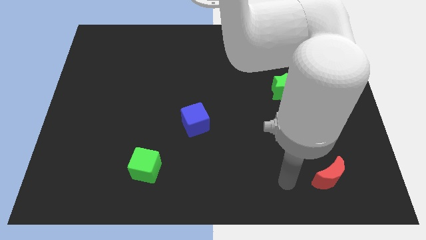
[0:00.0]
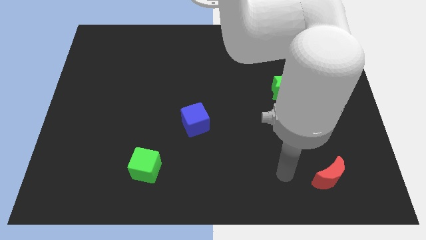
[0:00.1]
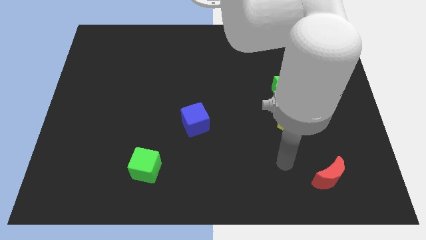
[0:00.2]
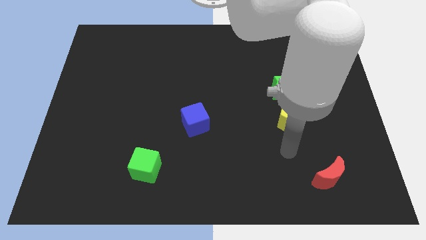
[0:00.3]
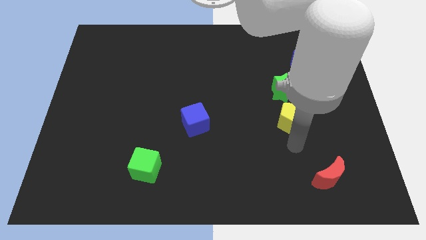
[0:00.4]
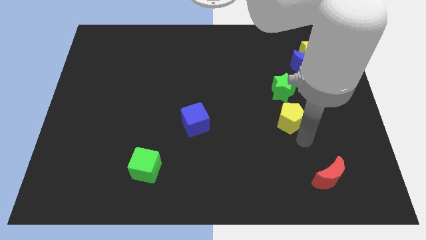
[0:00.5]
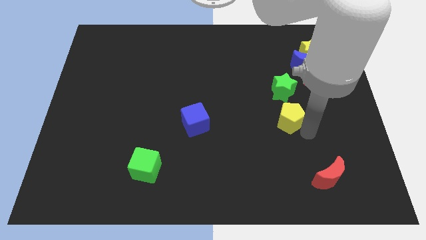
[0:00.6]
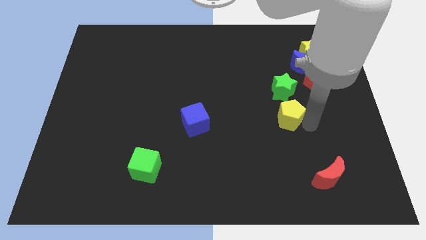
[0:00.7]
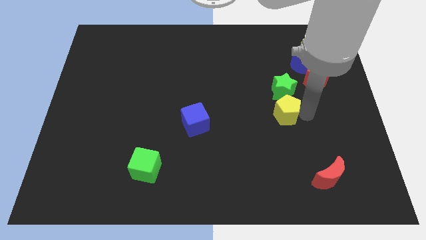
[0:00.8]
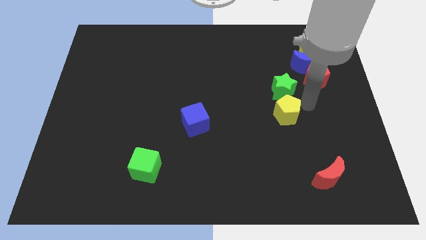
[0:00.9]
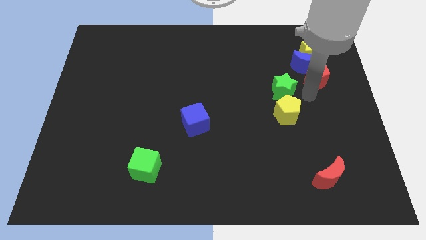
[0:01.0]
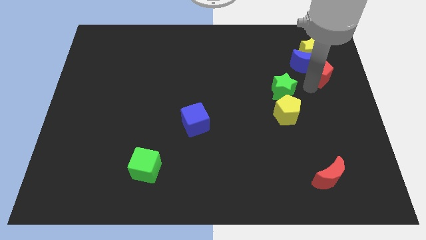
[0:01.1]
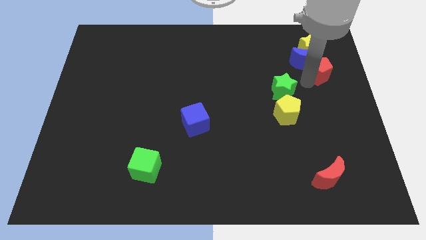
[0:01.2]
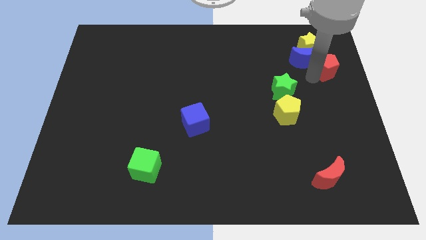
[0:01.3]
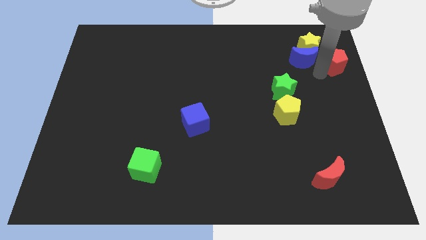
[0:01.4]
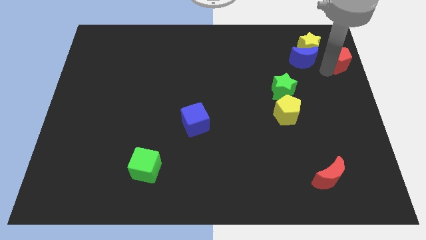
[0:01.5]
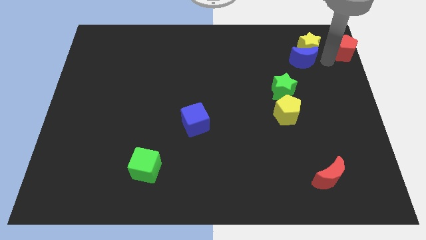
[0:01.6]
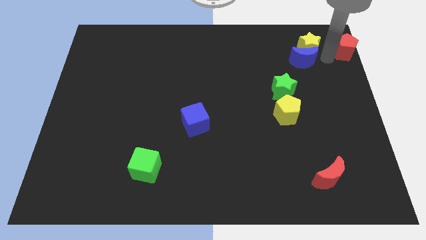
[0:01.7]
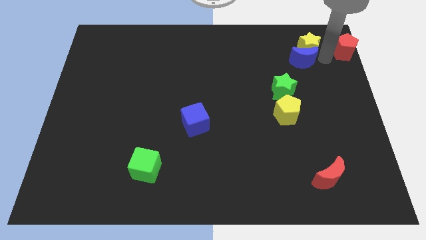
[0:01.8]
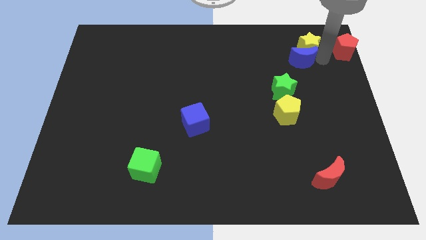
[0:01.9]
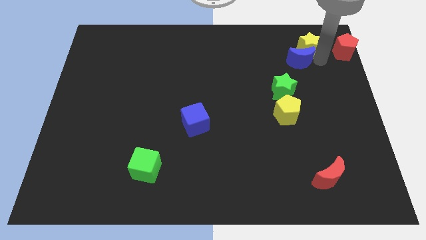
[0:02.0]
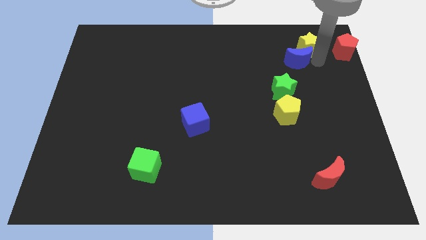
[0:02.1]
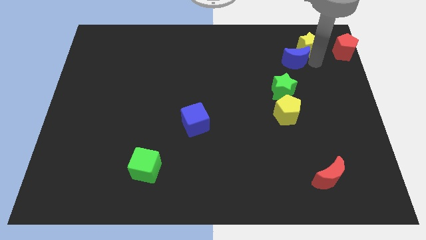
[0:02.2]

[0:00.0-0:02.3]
pull the blue moon apart from the yellow star and red pentagon

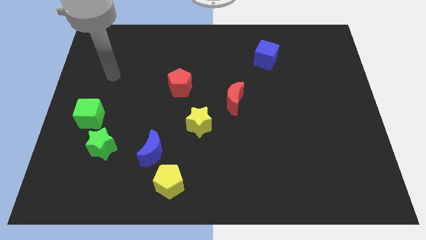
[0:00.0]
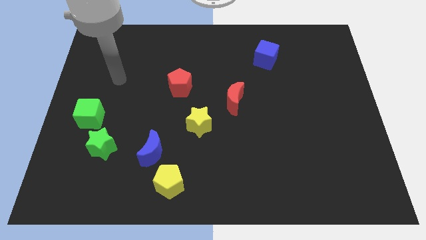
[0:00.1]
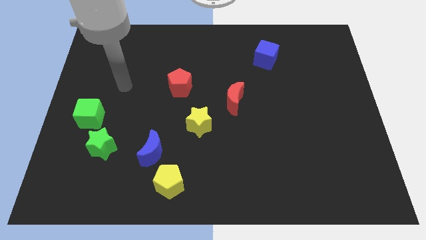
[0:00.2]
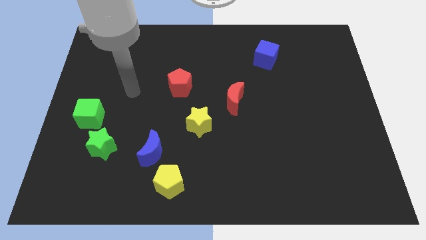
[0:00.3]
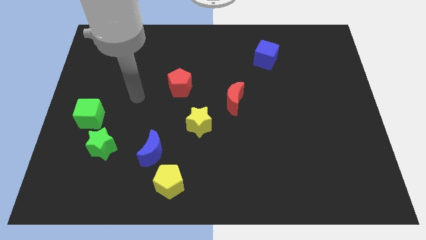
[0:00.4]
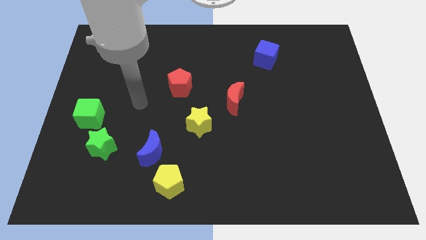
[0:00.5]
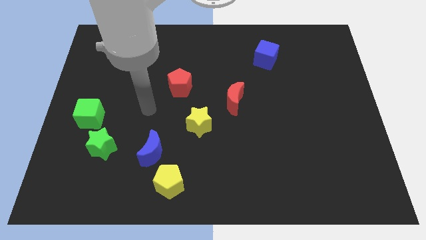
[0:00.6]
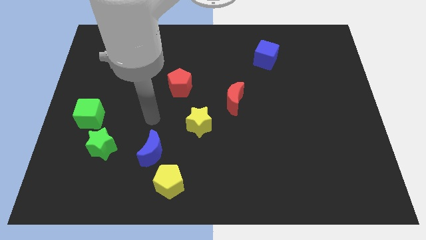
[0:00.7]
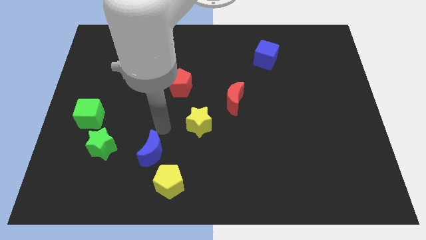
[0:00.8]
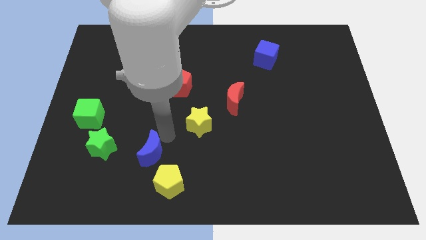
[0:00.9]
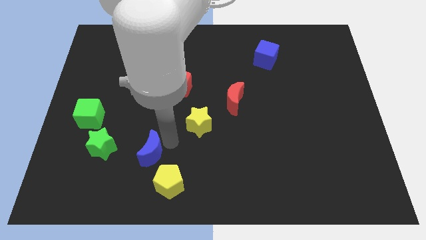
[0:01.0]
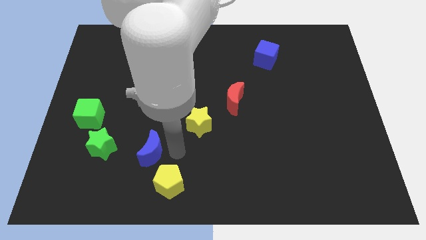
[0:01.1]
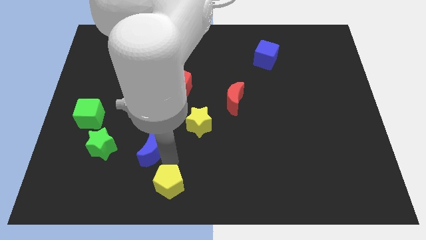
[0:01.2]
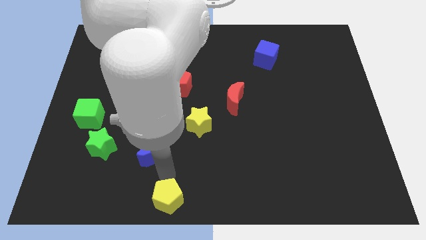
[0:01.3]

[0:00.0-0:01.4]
separate the blue moon from the yellow pentagon

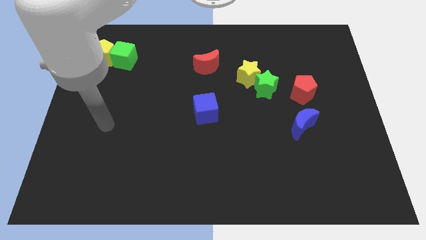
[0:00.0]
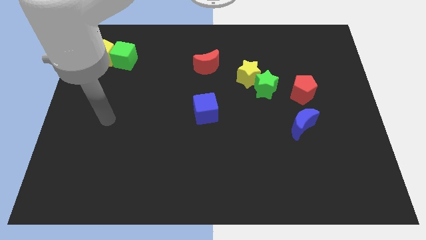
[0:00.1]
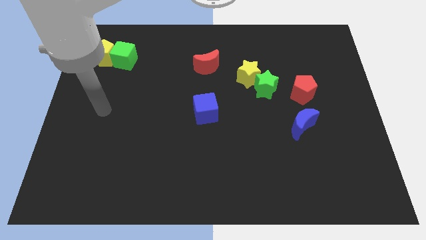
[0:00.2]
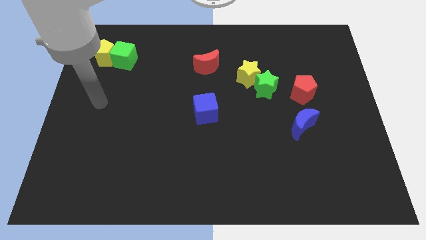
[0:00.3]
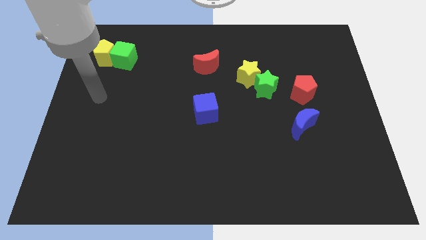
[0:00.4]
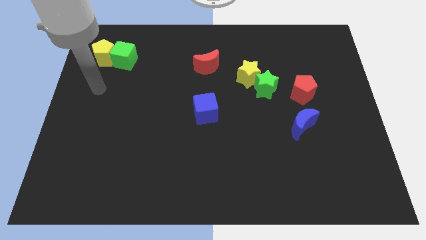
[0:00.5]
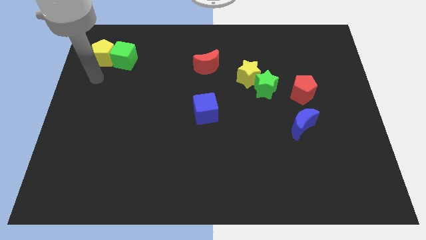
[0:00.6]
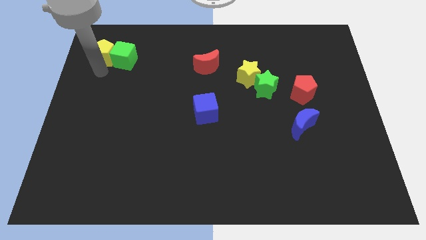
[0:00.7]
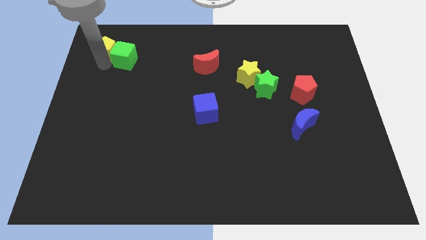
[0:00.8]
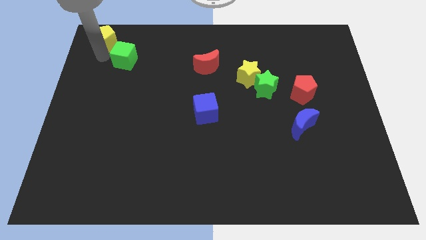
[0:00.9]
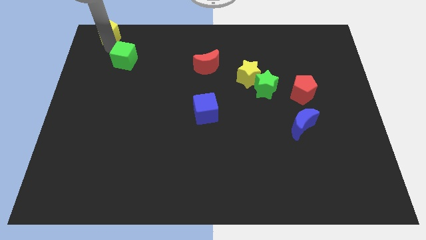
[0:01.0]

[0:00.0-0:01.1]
pull the green cube apart from the yellow pentagon

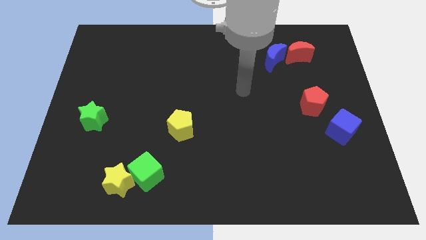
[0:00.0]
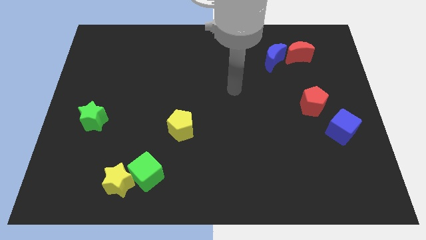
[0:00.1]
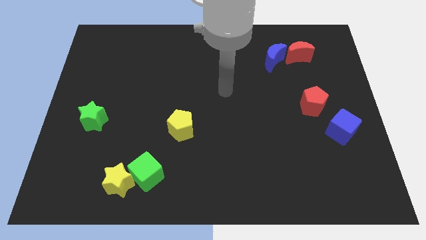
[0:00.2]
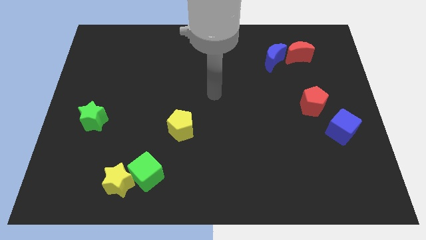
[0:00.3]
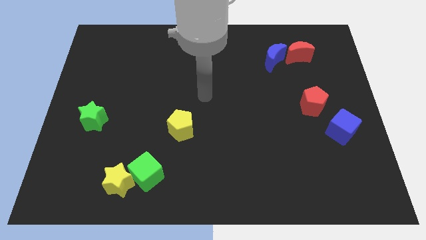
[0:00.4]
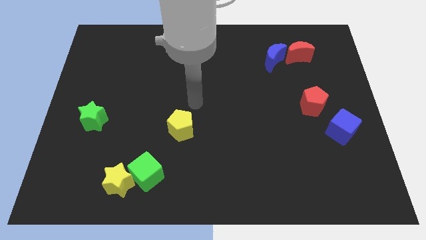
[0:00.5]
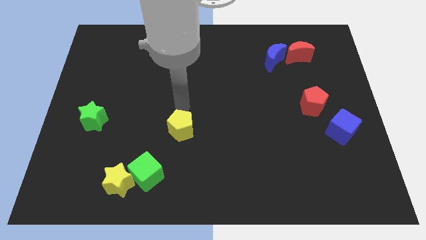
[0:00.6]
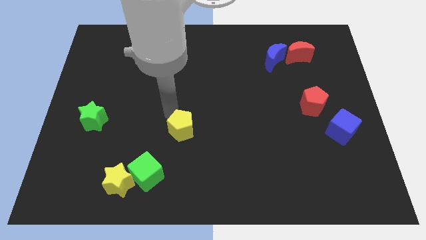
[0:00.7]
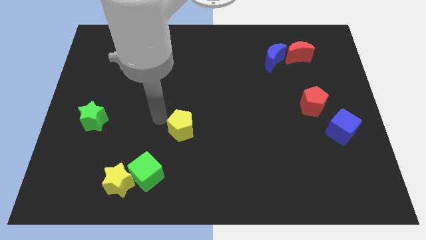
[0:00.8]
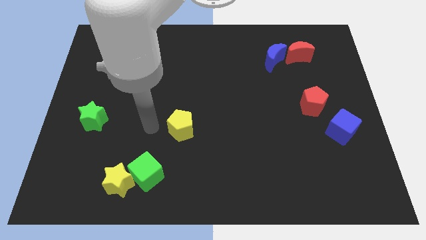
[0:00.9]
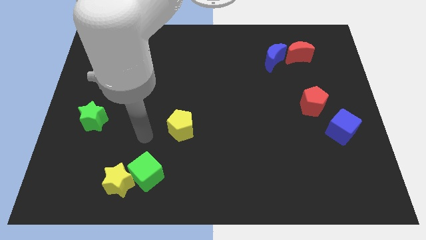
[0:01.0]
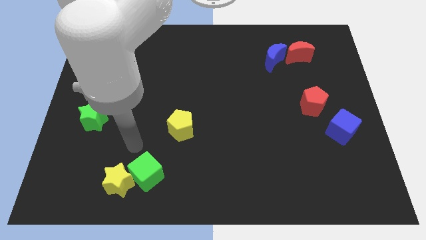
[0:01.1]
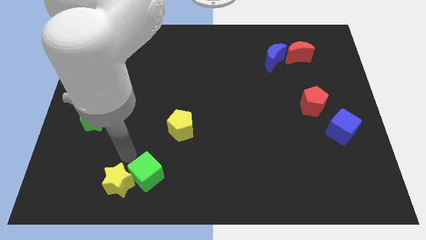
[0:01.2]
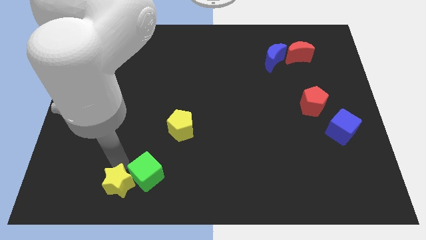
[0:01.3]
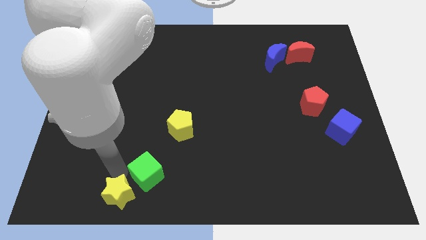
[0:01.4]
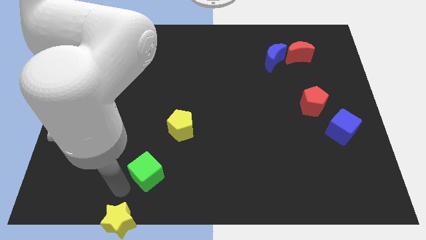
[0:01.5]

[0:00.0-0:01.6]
pull the green cube apart from the yellow star

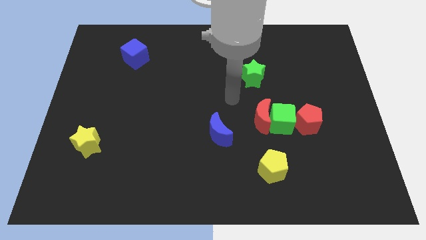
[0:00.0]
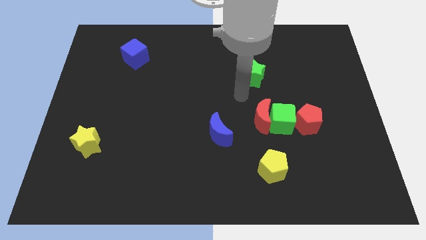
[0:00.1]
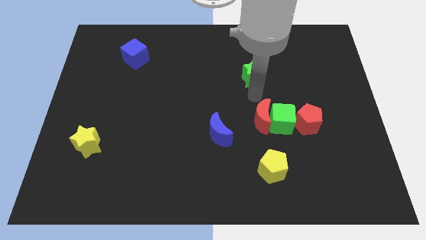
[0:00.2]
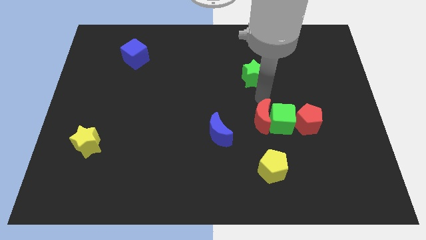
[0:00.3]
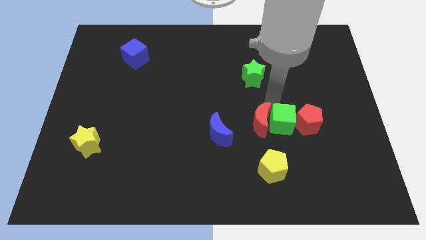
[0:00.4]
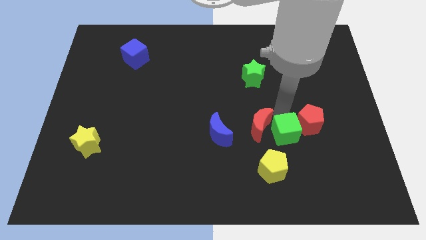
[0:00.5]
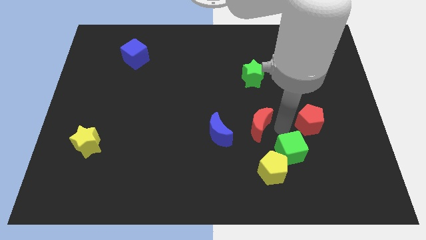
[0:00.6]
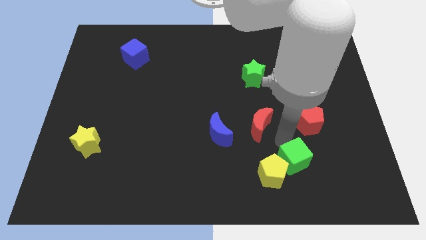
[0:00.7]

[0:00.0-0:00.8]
separate the red moon from the green cube

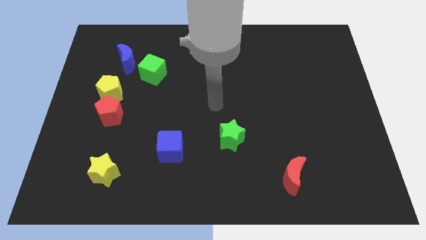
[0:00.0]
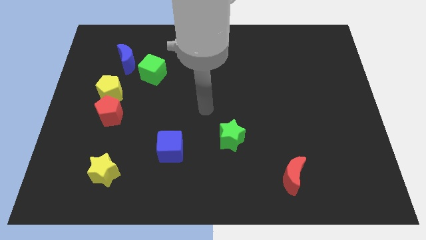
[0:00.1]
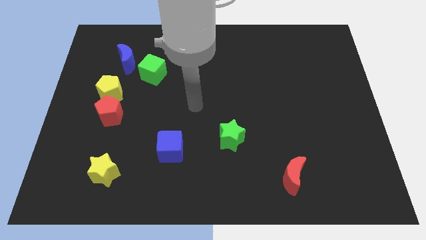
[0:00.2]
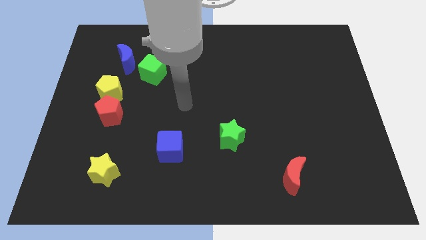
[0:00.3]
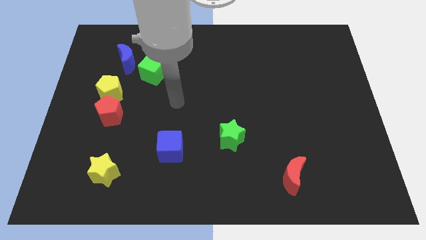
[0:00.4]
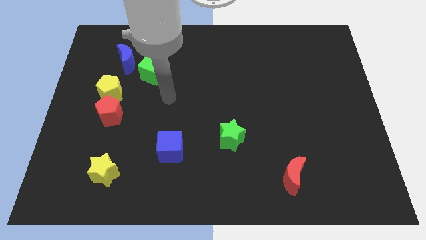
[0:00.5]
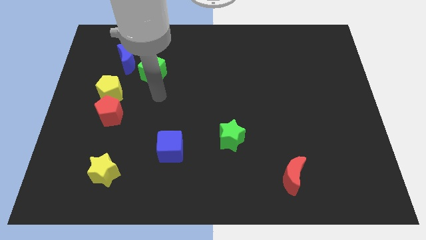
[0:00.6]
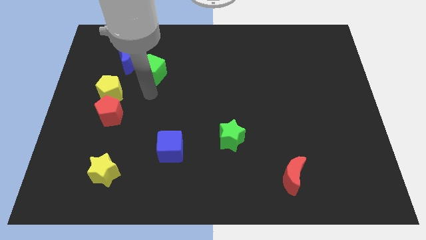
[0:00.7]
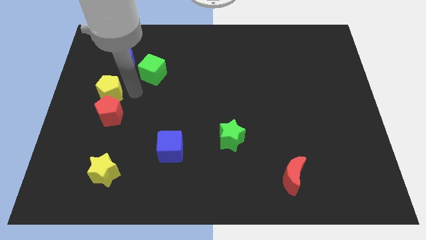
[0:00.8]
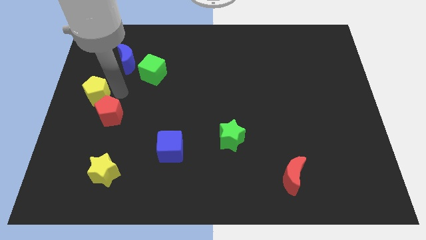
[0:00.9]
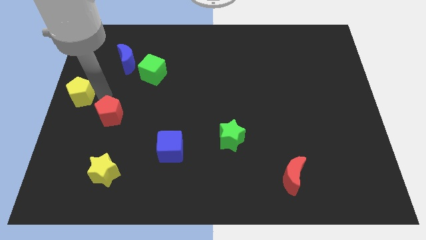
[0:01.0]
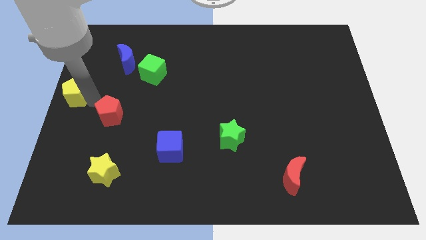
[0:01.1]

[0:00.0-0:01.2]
separate the red pentagon from the yellow pentagon

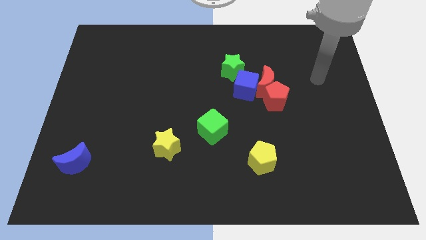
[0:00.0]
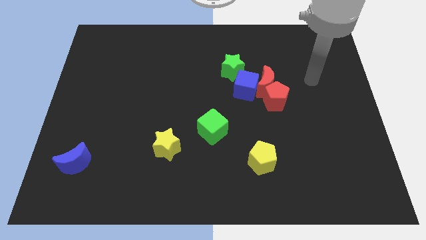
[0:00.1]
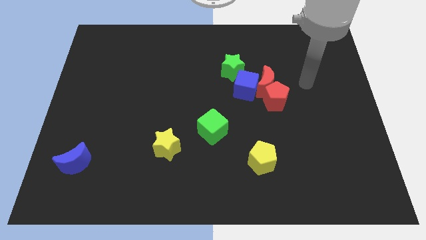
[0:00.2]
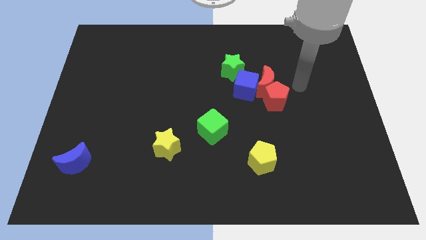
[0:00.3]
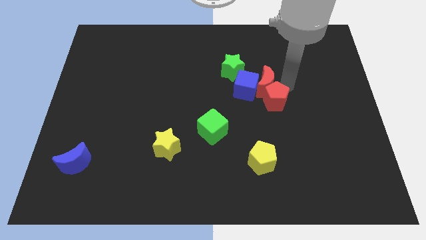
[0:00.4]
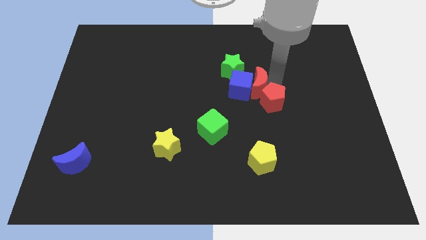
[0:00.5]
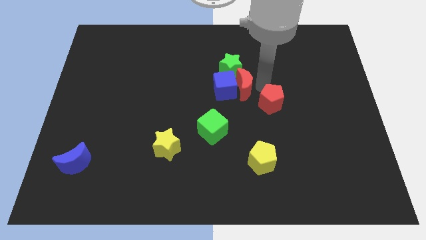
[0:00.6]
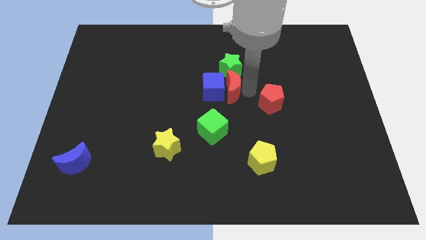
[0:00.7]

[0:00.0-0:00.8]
separate the red pentagon from the red moon and blue cube
